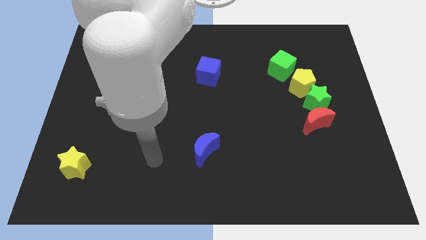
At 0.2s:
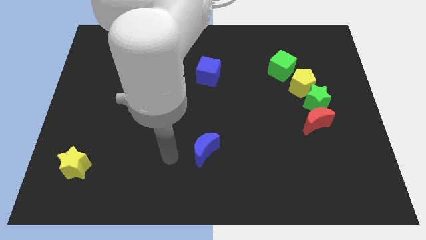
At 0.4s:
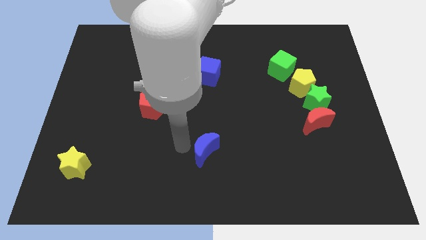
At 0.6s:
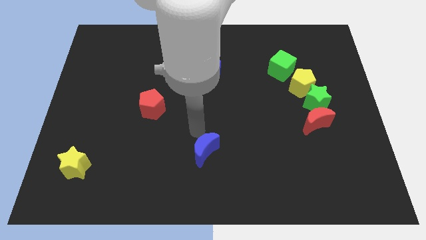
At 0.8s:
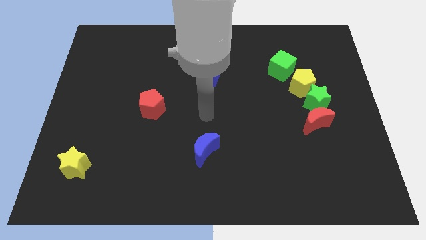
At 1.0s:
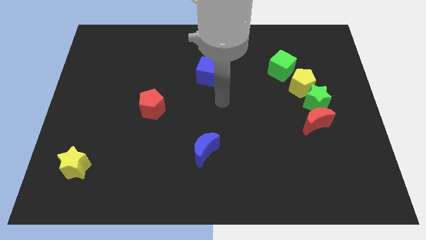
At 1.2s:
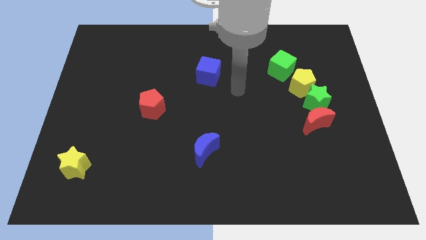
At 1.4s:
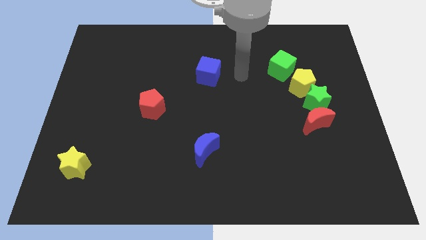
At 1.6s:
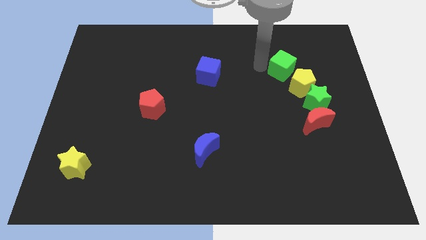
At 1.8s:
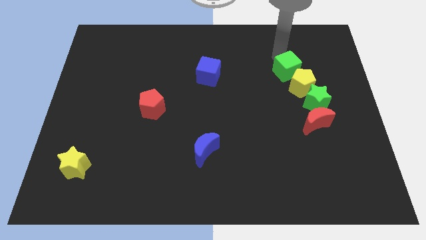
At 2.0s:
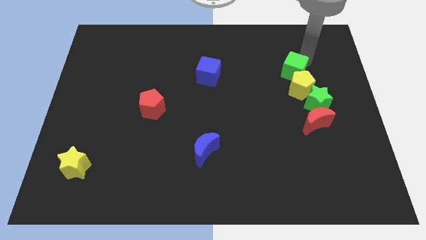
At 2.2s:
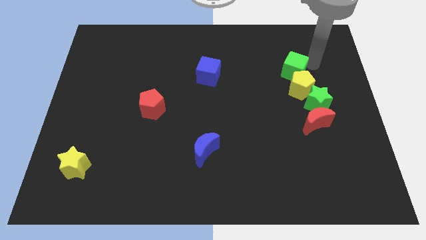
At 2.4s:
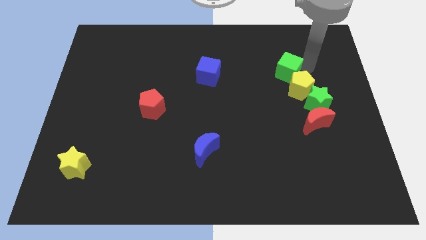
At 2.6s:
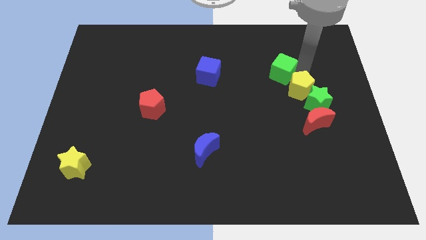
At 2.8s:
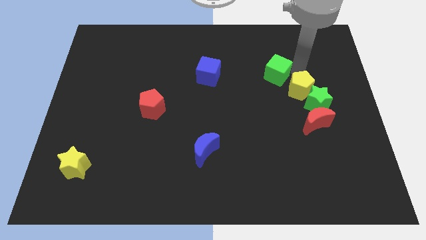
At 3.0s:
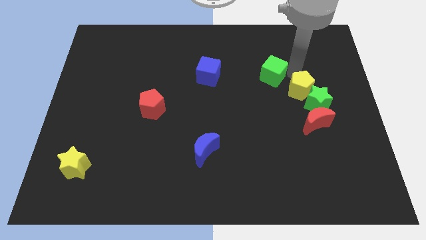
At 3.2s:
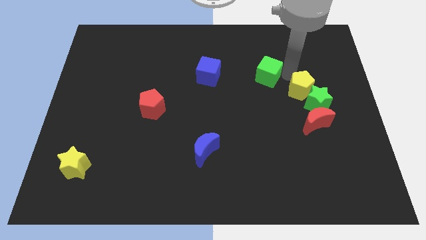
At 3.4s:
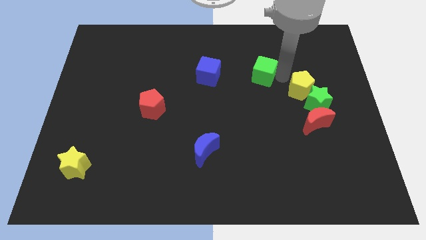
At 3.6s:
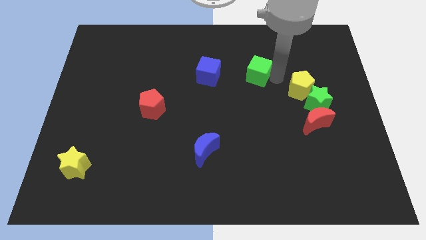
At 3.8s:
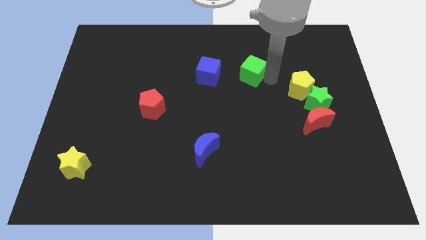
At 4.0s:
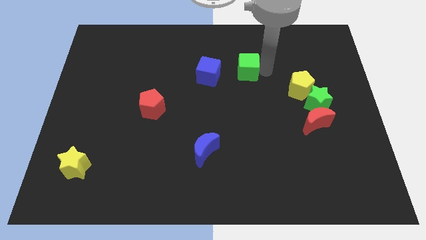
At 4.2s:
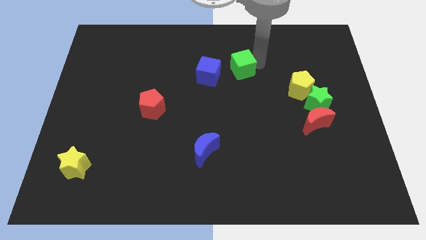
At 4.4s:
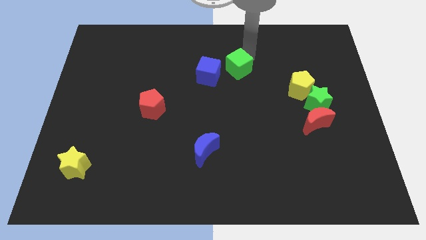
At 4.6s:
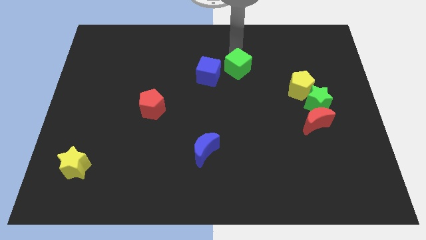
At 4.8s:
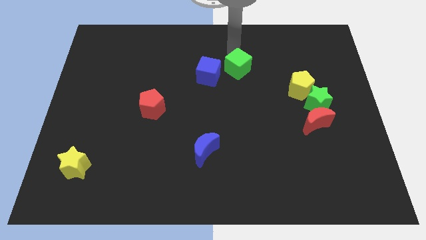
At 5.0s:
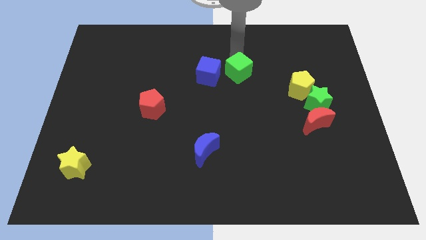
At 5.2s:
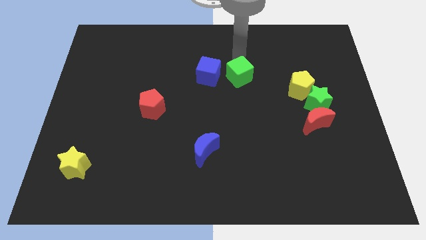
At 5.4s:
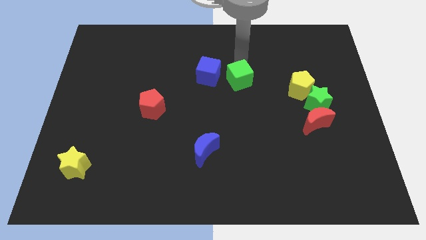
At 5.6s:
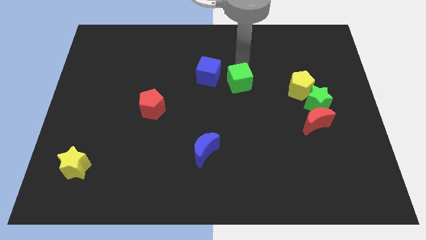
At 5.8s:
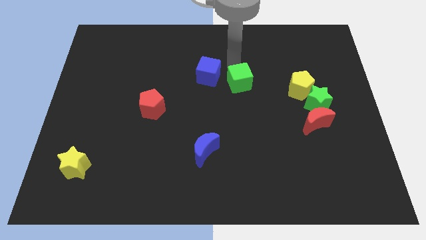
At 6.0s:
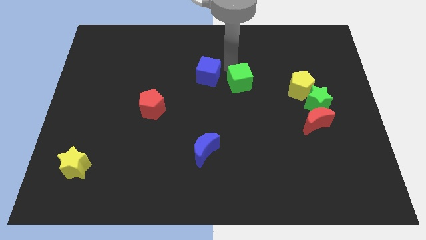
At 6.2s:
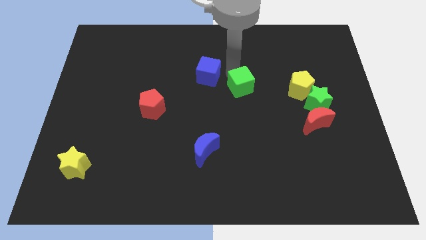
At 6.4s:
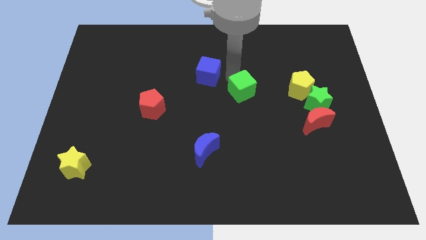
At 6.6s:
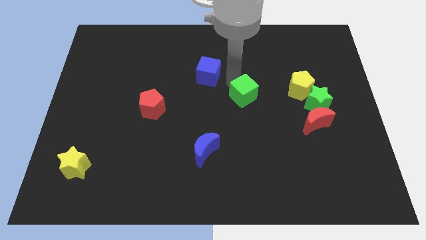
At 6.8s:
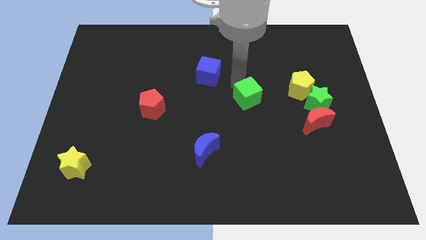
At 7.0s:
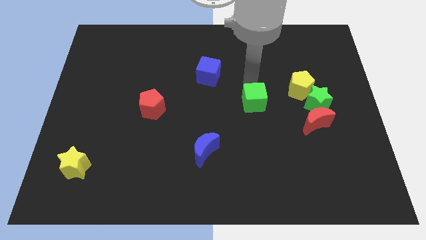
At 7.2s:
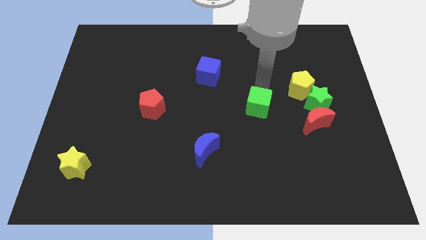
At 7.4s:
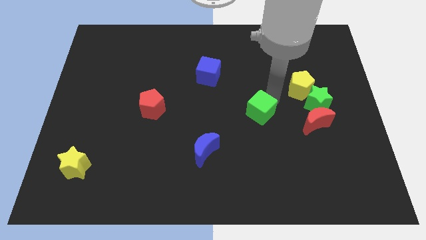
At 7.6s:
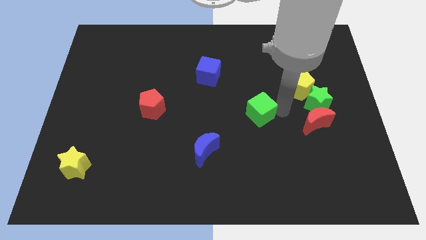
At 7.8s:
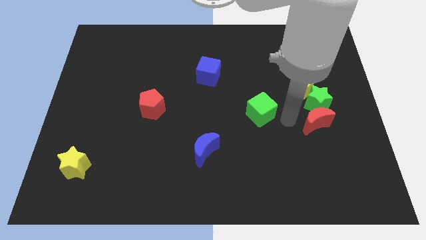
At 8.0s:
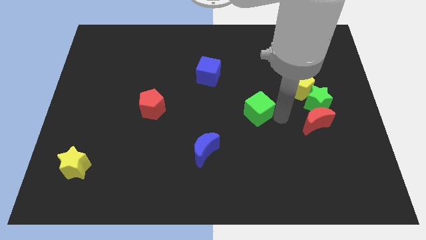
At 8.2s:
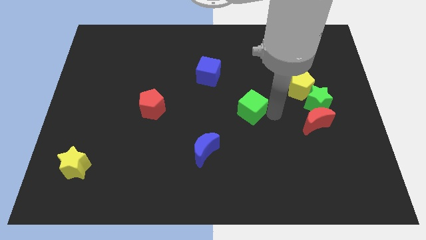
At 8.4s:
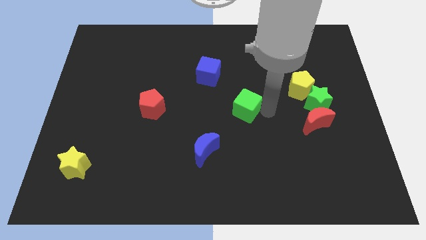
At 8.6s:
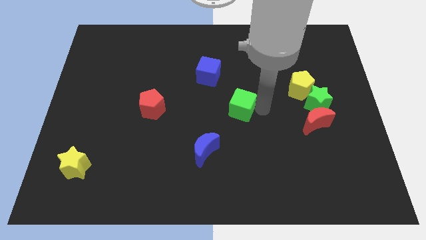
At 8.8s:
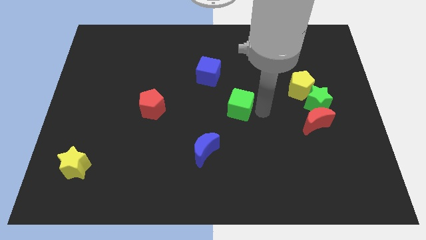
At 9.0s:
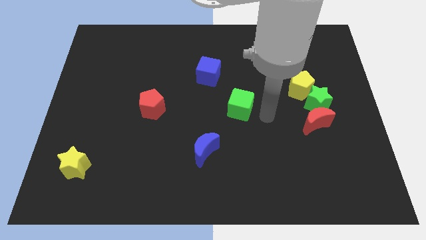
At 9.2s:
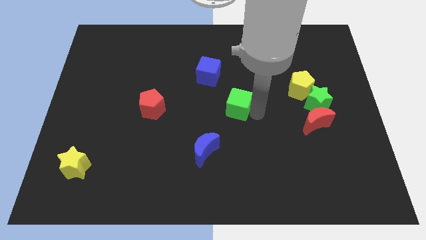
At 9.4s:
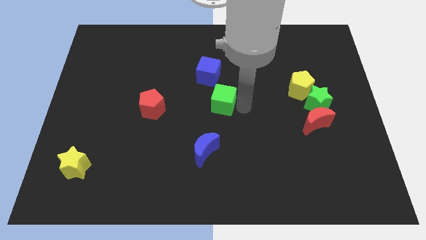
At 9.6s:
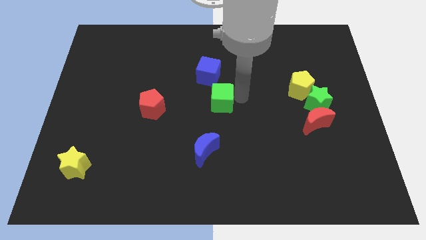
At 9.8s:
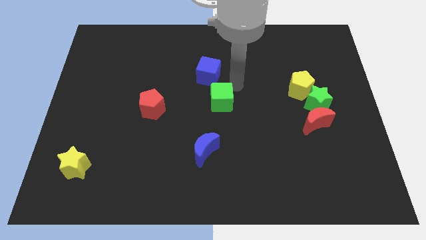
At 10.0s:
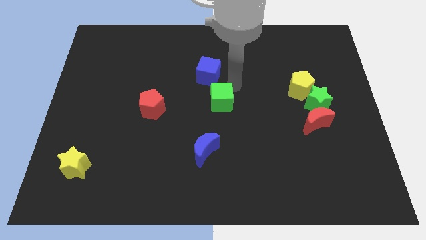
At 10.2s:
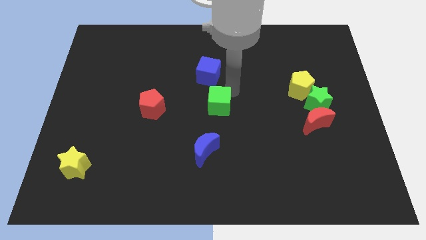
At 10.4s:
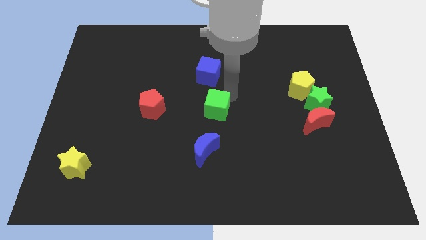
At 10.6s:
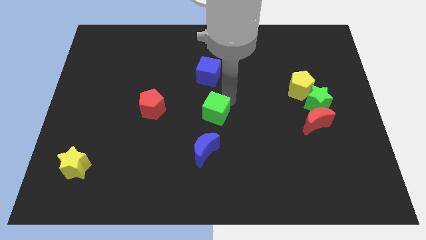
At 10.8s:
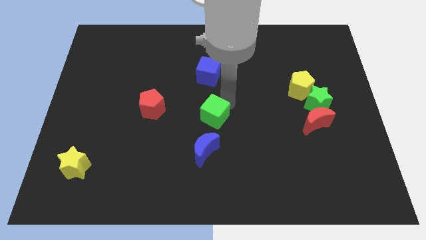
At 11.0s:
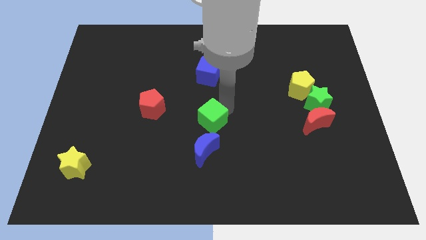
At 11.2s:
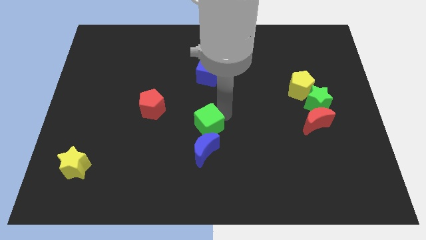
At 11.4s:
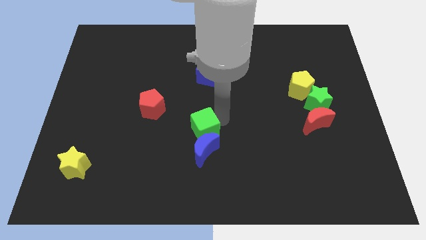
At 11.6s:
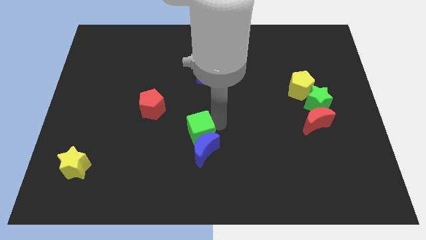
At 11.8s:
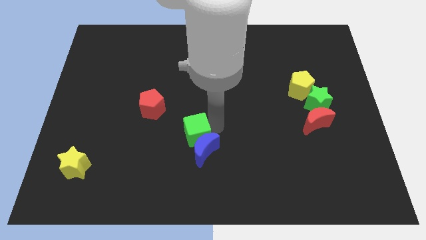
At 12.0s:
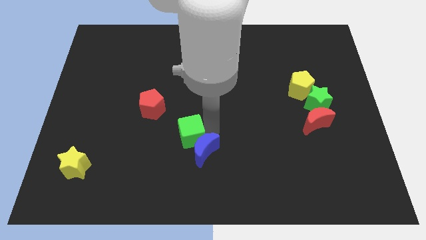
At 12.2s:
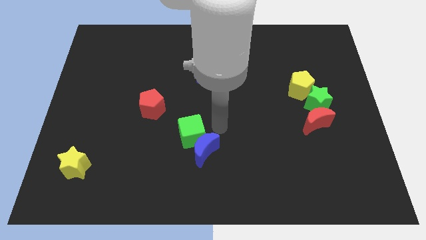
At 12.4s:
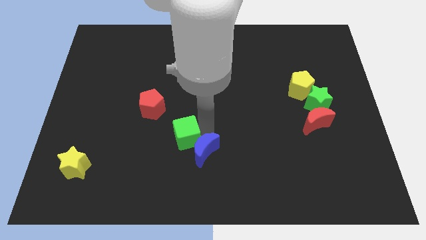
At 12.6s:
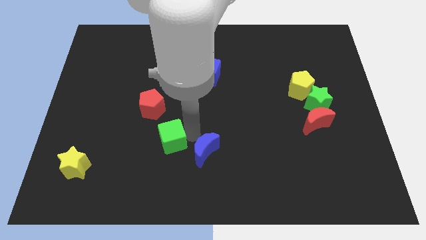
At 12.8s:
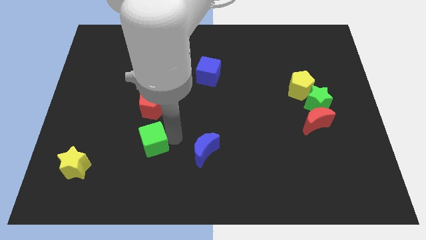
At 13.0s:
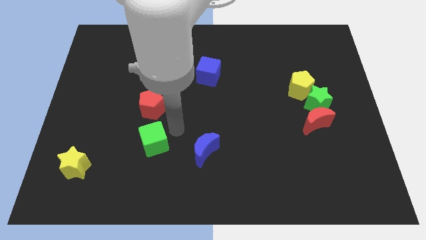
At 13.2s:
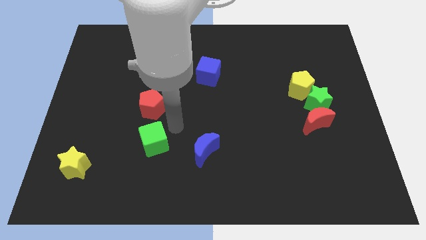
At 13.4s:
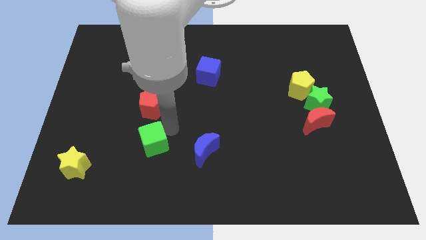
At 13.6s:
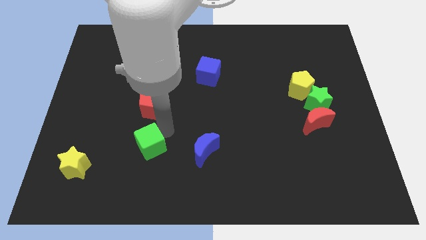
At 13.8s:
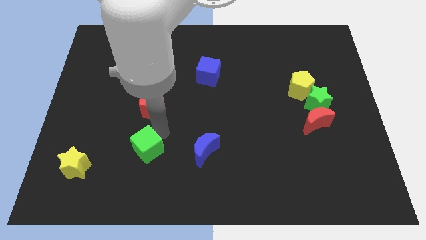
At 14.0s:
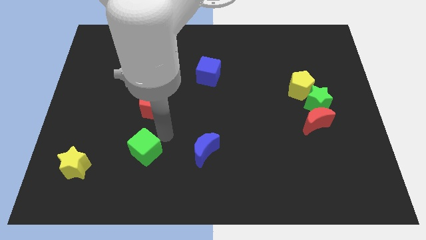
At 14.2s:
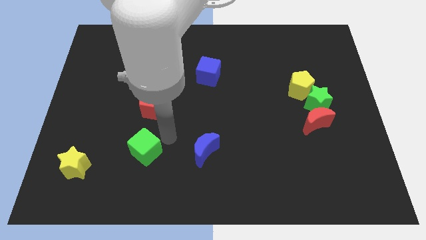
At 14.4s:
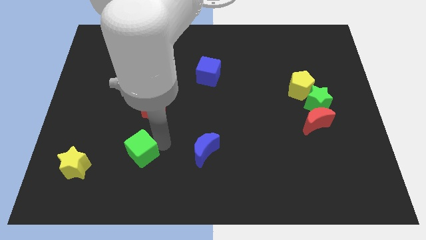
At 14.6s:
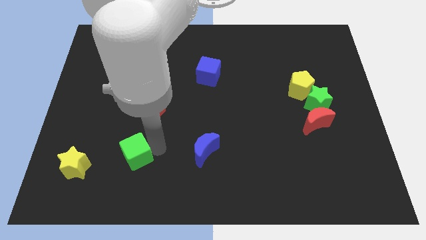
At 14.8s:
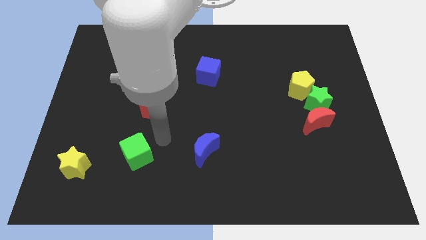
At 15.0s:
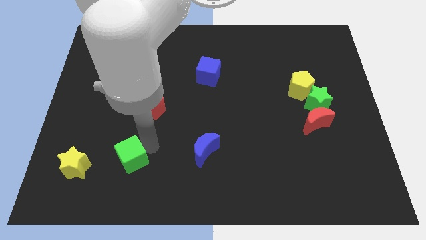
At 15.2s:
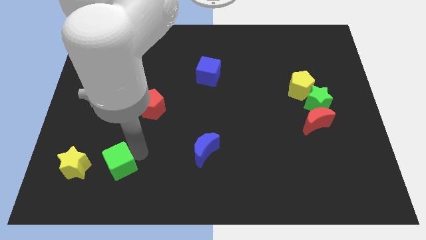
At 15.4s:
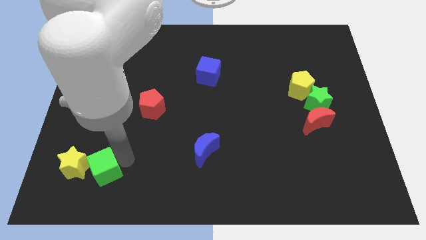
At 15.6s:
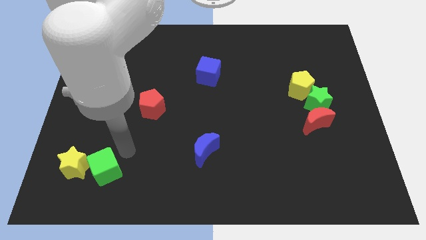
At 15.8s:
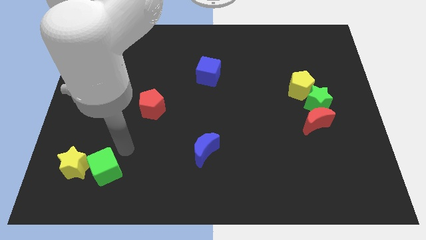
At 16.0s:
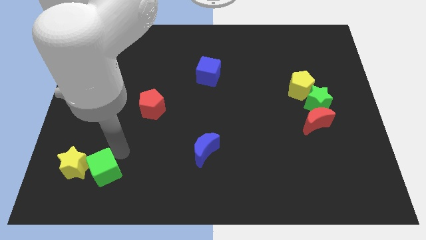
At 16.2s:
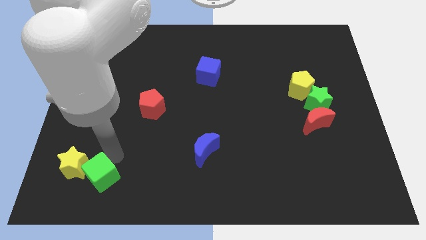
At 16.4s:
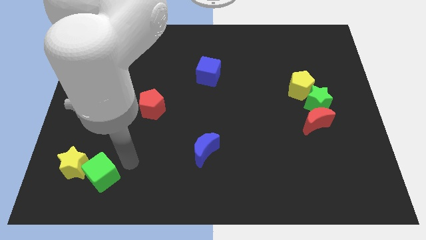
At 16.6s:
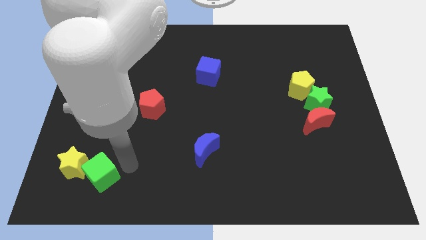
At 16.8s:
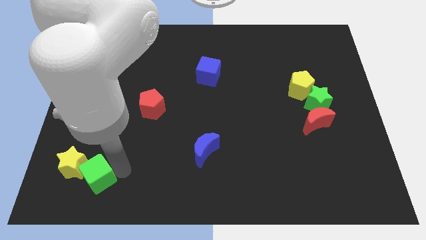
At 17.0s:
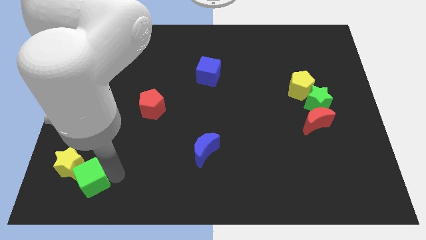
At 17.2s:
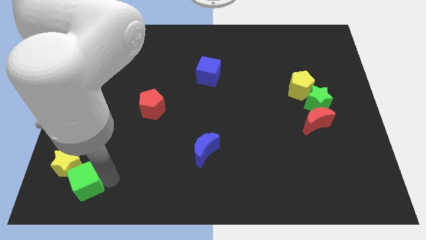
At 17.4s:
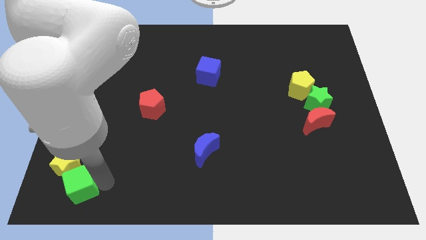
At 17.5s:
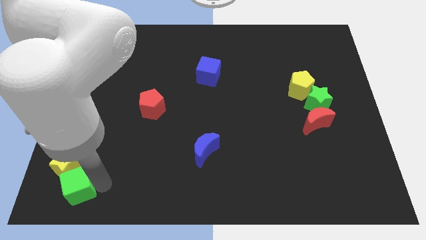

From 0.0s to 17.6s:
put the green cube to the bottom left of the board
